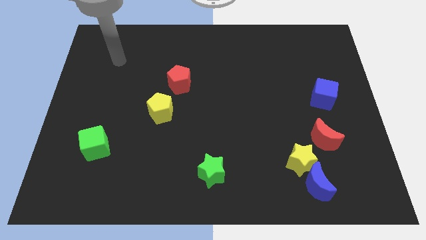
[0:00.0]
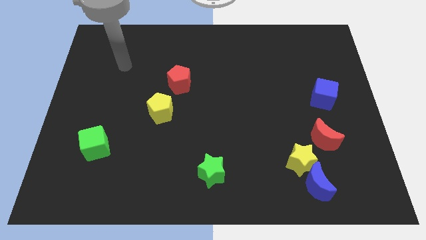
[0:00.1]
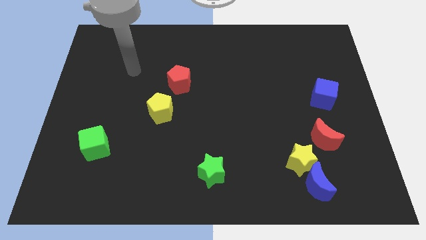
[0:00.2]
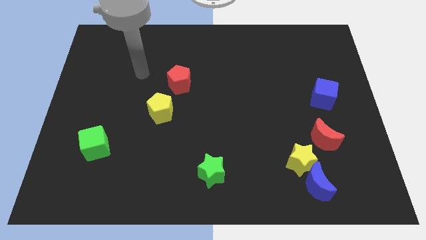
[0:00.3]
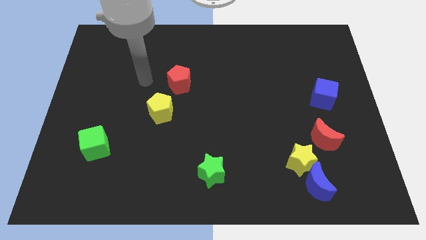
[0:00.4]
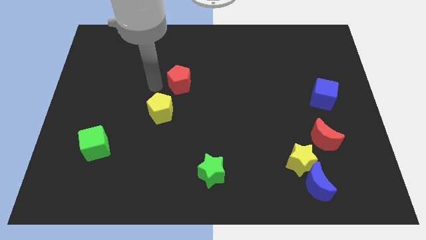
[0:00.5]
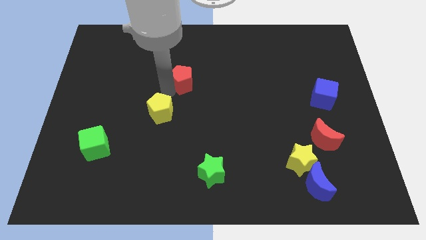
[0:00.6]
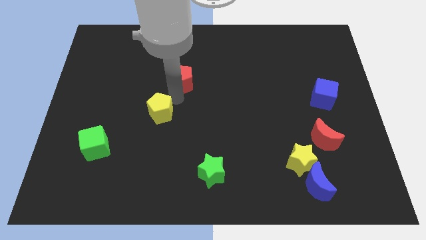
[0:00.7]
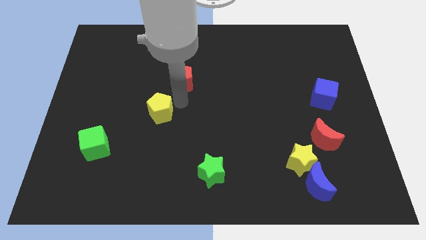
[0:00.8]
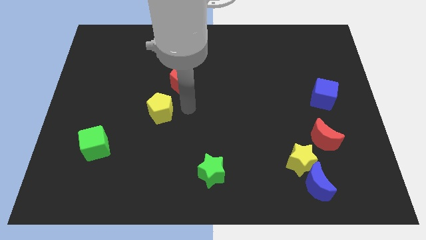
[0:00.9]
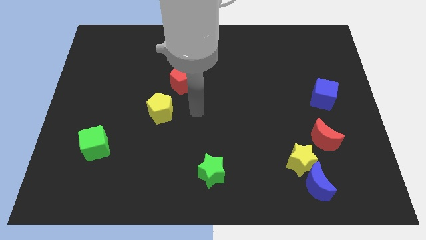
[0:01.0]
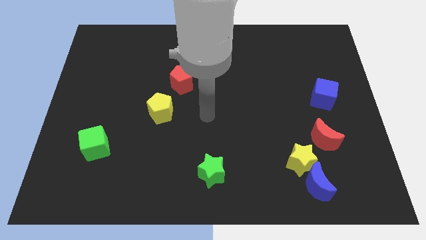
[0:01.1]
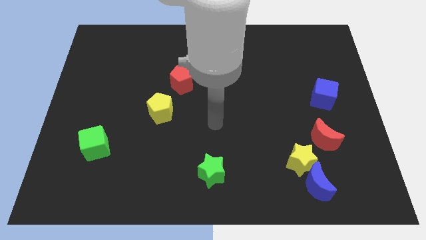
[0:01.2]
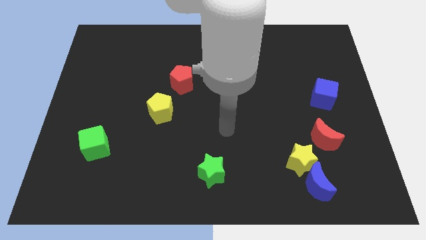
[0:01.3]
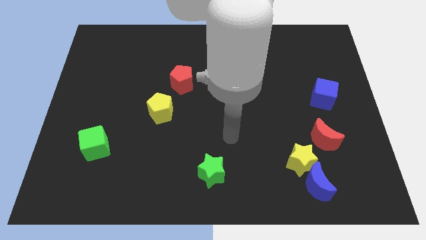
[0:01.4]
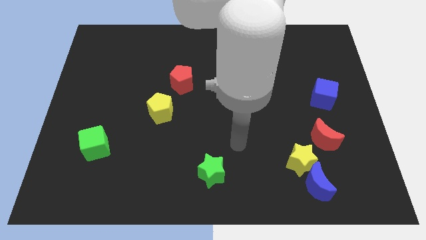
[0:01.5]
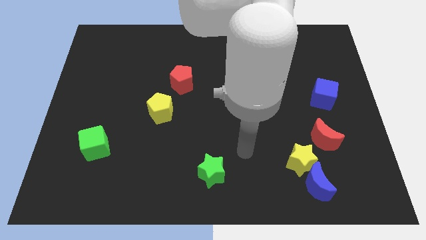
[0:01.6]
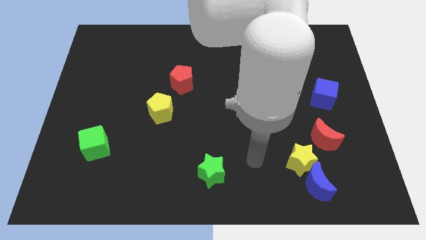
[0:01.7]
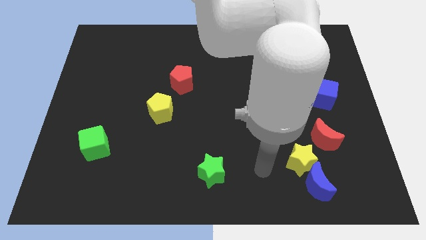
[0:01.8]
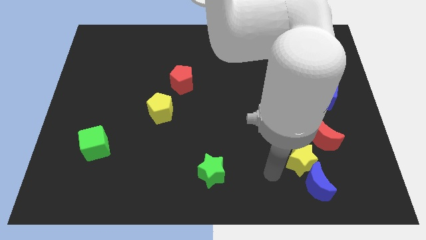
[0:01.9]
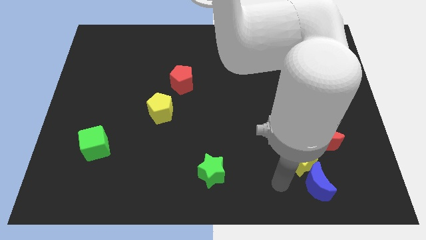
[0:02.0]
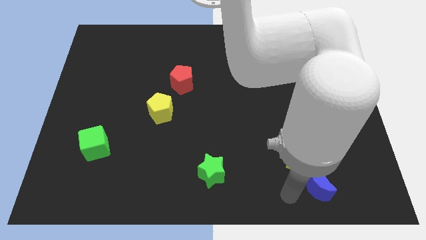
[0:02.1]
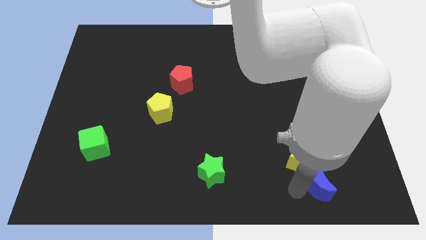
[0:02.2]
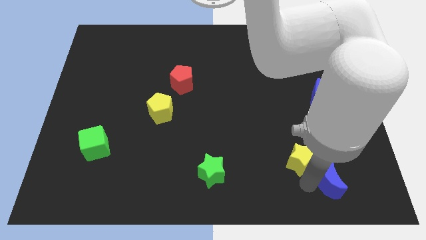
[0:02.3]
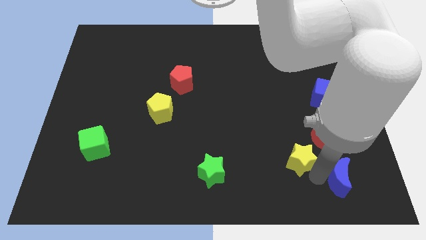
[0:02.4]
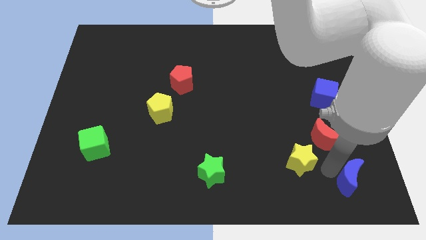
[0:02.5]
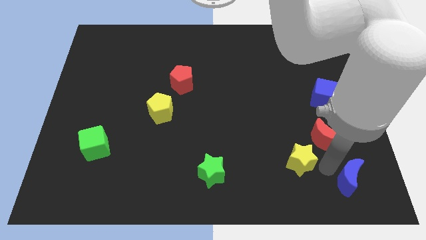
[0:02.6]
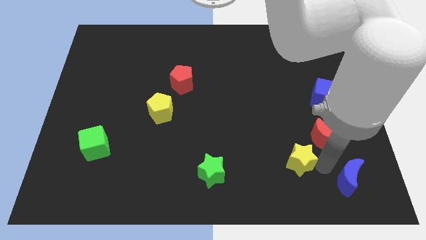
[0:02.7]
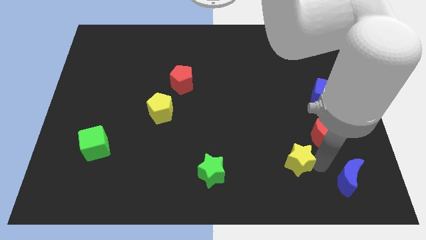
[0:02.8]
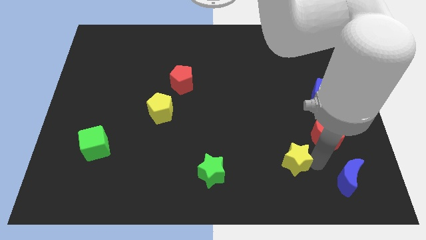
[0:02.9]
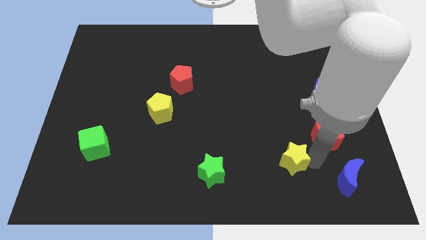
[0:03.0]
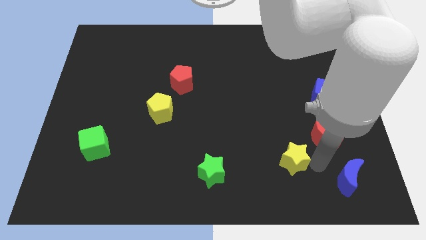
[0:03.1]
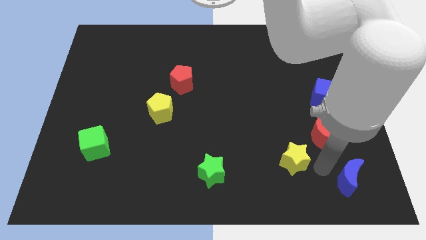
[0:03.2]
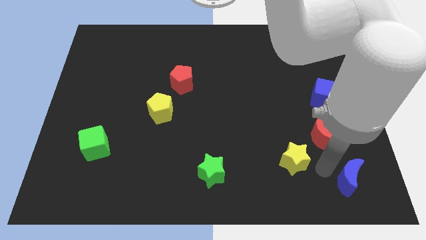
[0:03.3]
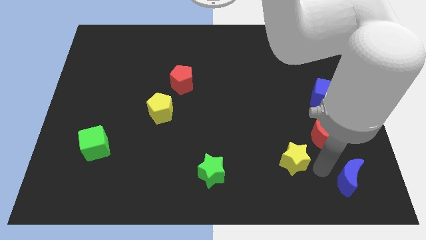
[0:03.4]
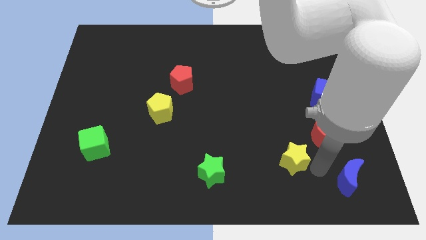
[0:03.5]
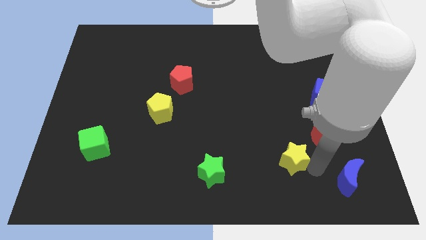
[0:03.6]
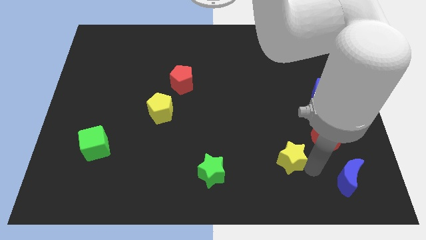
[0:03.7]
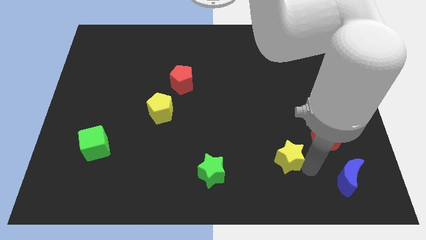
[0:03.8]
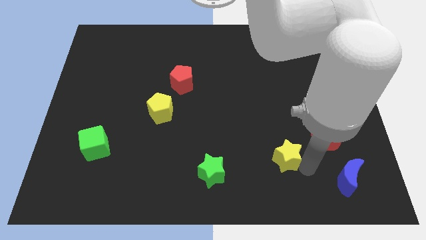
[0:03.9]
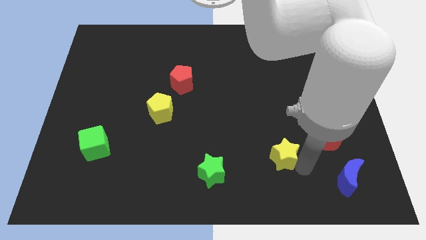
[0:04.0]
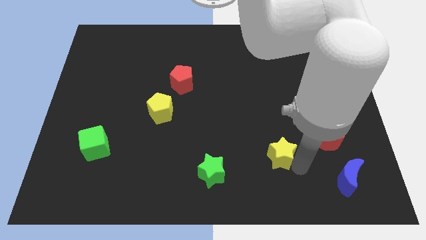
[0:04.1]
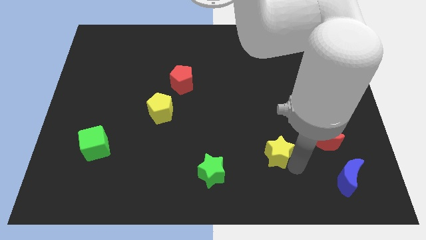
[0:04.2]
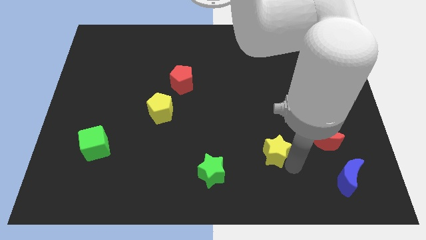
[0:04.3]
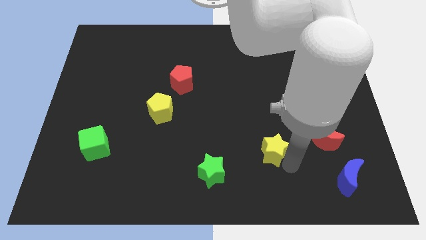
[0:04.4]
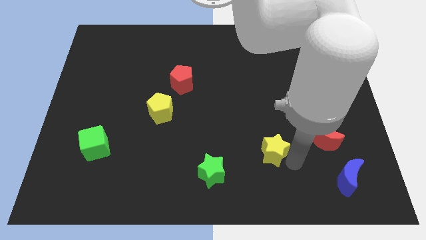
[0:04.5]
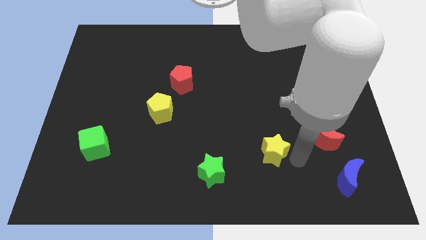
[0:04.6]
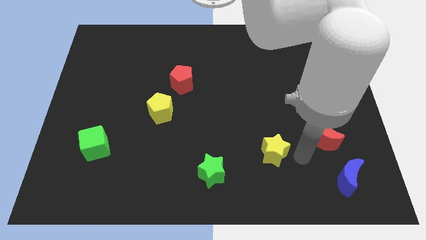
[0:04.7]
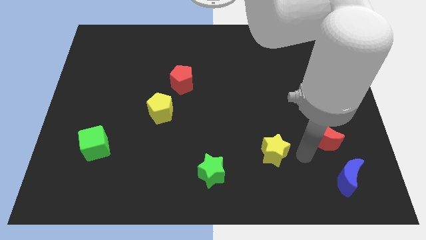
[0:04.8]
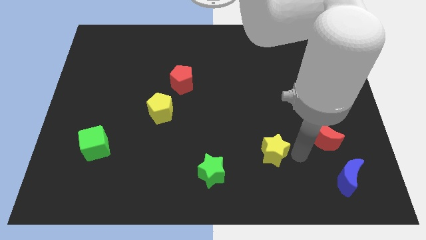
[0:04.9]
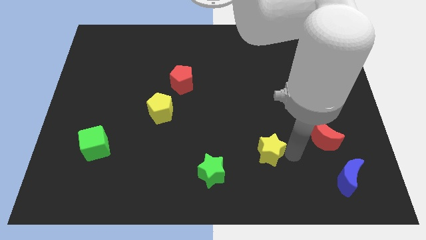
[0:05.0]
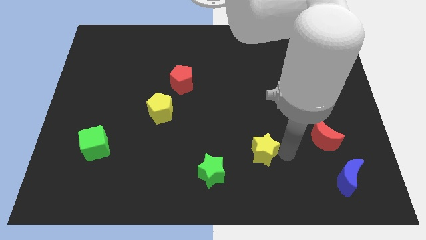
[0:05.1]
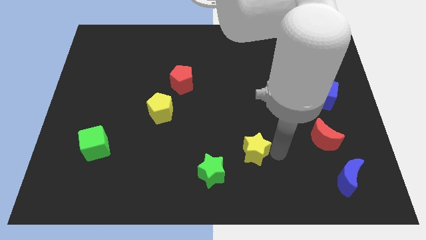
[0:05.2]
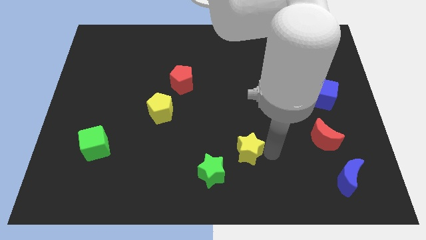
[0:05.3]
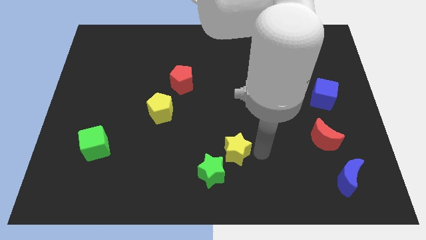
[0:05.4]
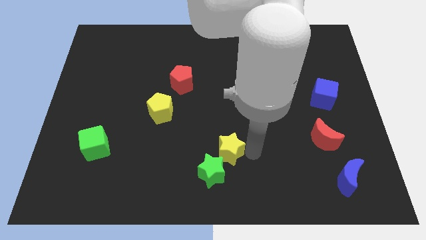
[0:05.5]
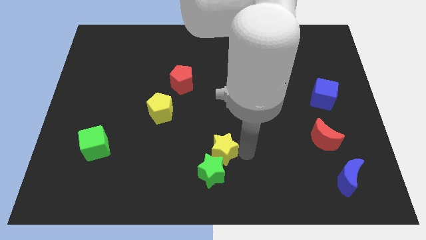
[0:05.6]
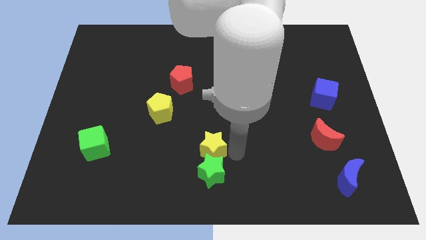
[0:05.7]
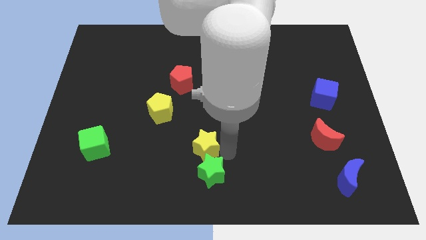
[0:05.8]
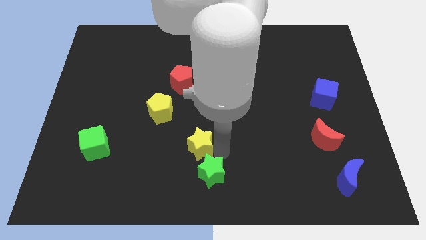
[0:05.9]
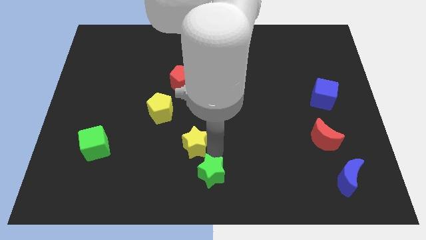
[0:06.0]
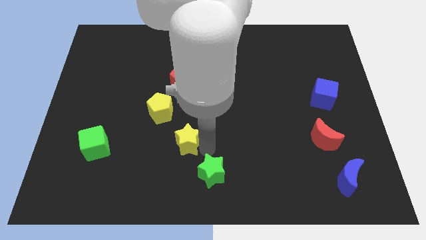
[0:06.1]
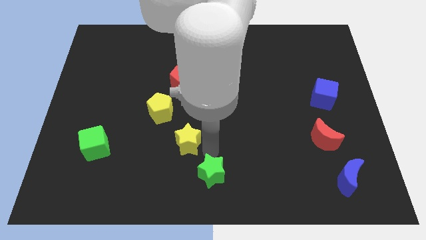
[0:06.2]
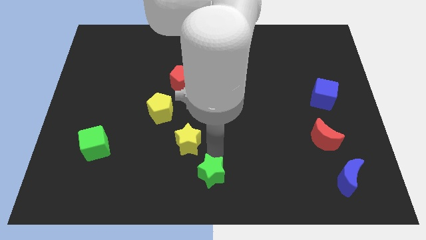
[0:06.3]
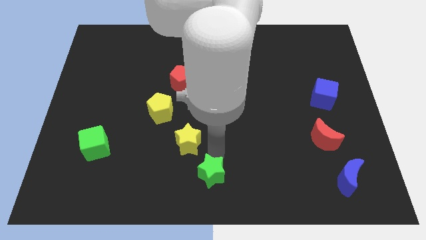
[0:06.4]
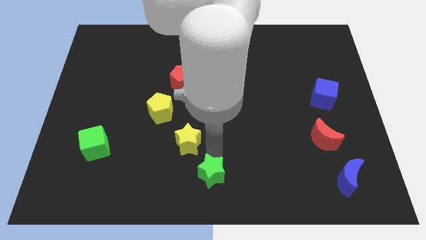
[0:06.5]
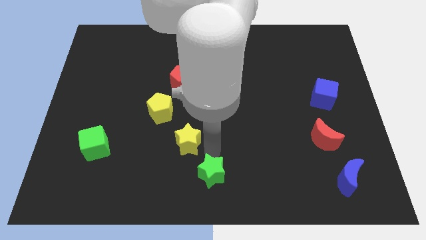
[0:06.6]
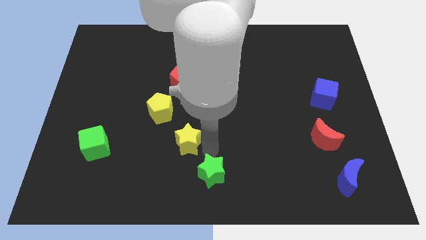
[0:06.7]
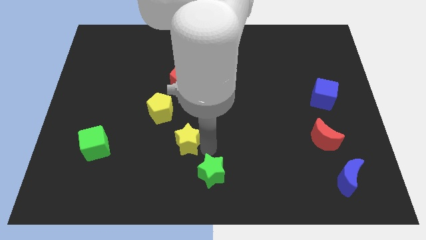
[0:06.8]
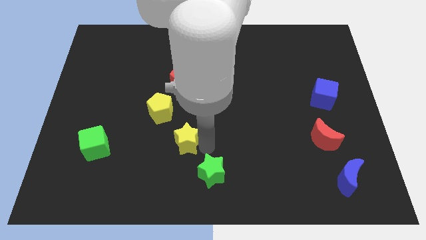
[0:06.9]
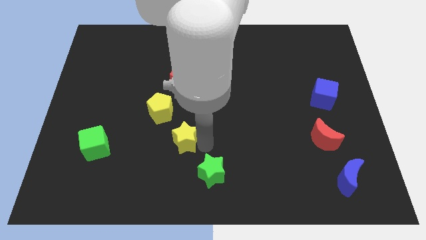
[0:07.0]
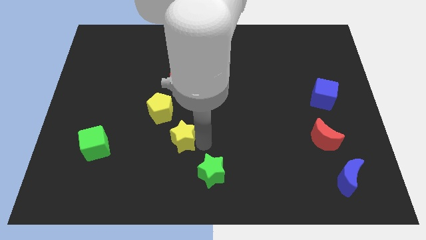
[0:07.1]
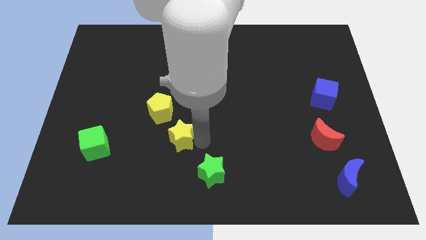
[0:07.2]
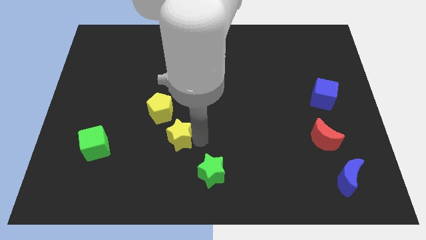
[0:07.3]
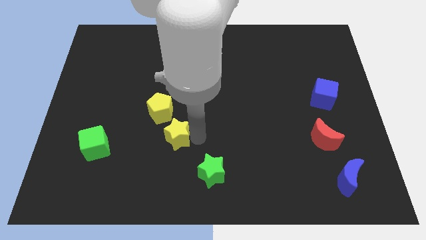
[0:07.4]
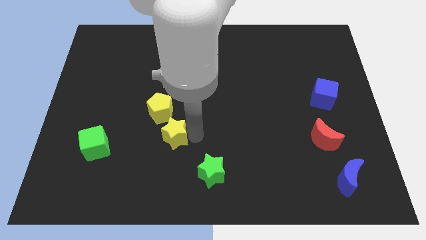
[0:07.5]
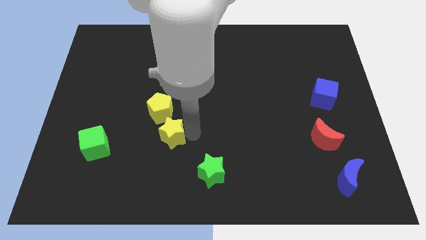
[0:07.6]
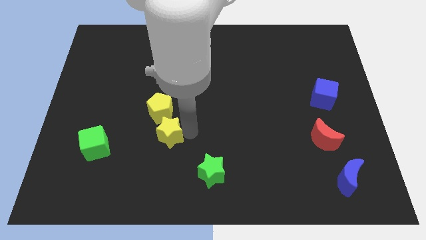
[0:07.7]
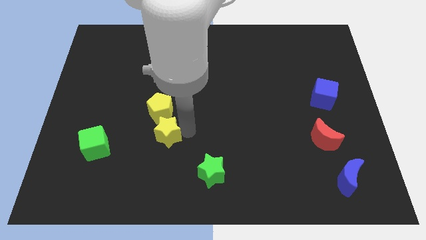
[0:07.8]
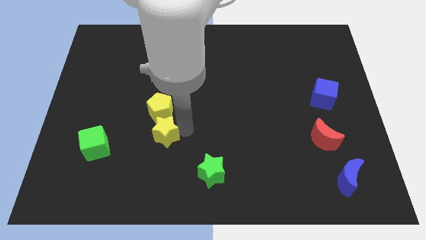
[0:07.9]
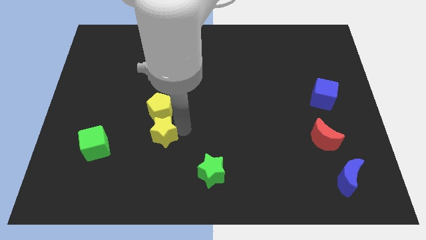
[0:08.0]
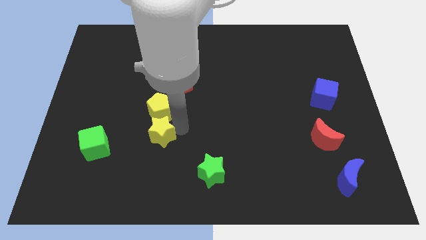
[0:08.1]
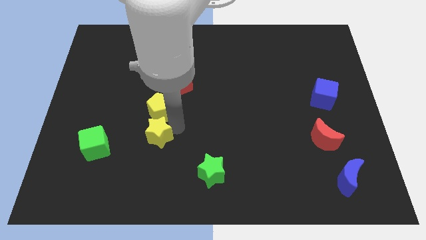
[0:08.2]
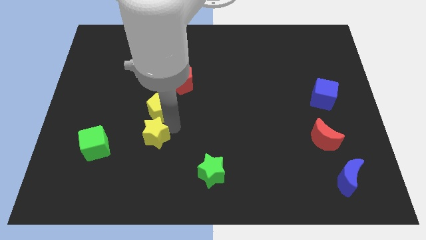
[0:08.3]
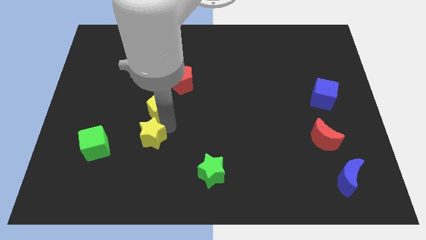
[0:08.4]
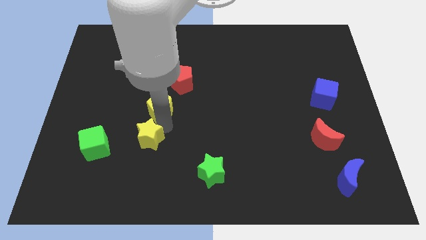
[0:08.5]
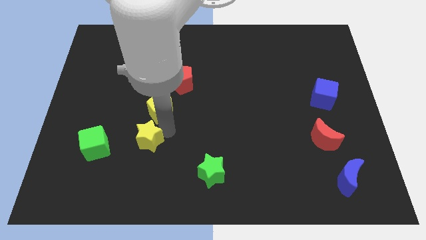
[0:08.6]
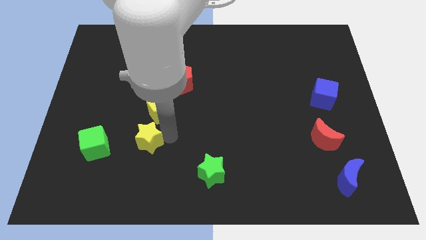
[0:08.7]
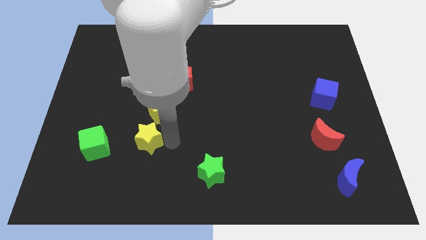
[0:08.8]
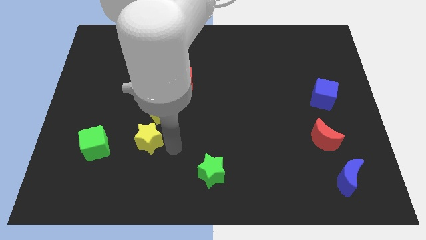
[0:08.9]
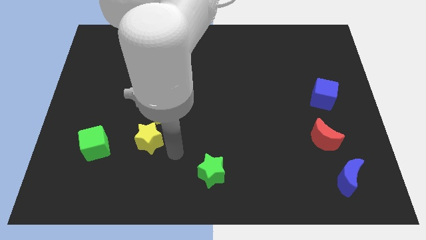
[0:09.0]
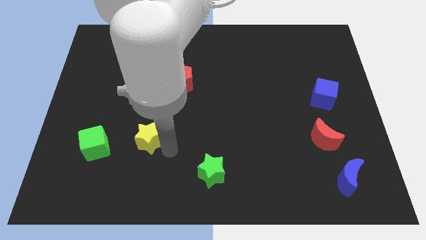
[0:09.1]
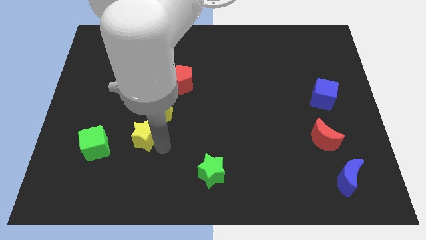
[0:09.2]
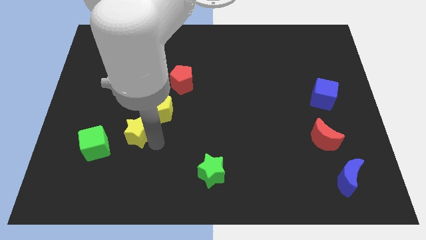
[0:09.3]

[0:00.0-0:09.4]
push the yellow star to the top right side of the green cube
